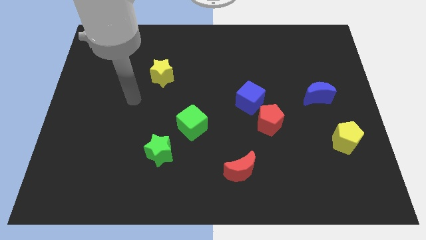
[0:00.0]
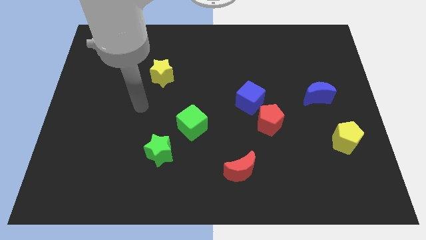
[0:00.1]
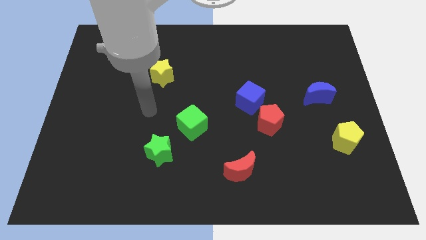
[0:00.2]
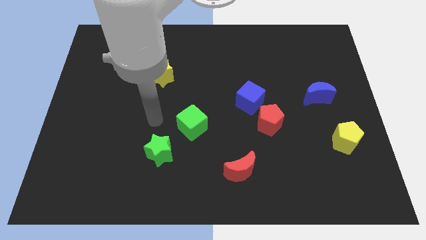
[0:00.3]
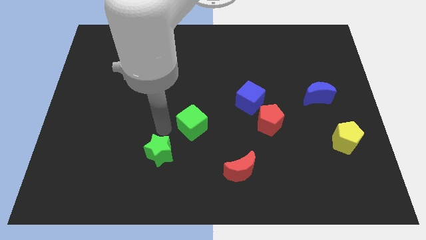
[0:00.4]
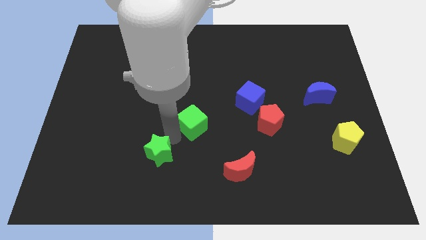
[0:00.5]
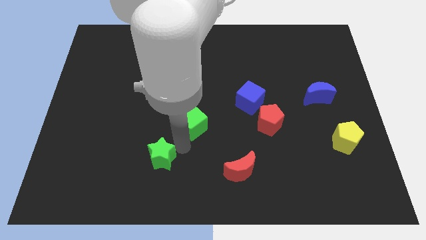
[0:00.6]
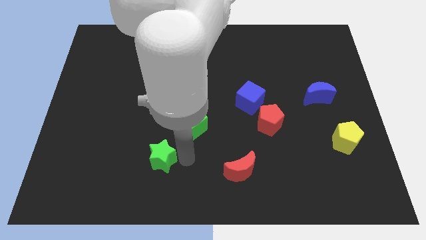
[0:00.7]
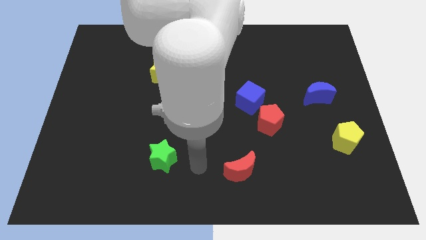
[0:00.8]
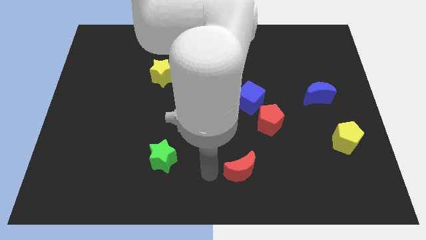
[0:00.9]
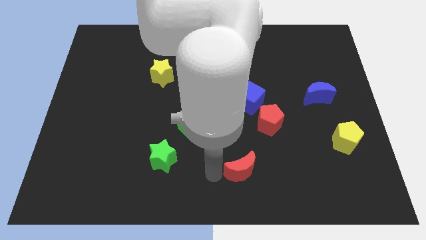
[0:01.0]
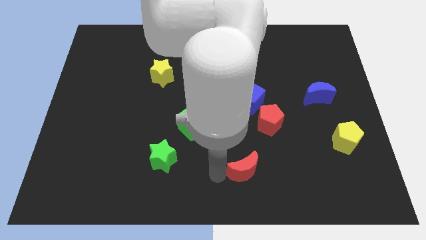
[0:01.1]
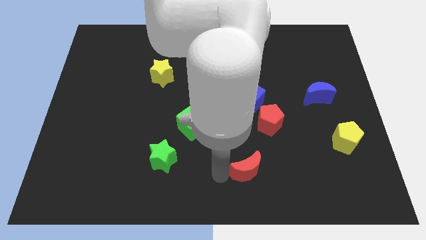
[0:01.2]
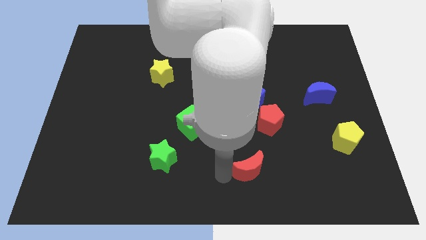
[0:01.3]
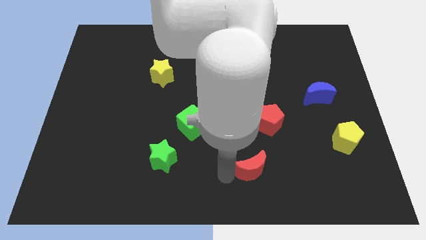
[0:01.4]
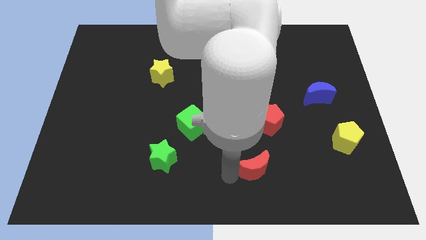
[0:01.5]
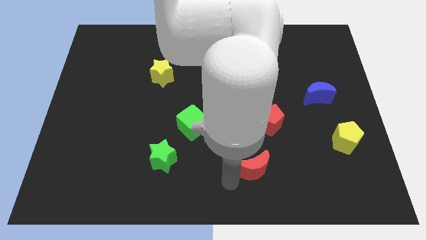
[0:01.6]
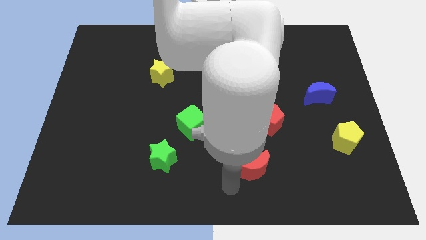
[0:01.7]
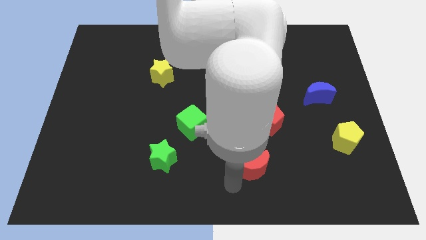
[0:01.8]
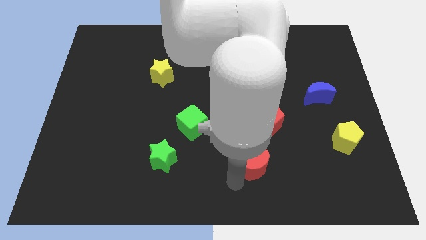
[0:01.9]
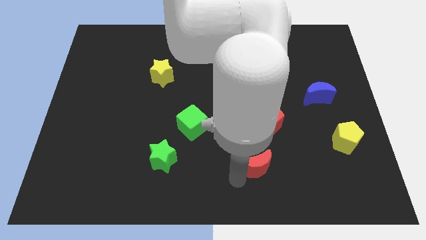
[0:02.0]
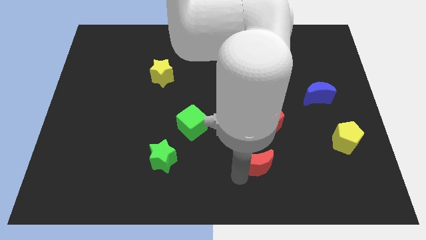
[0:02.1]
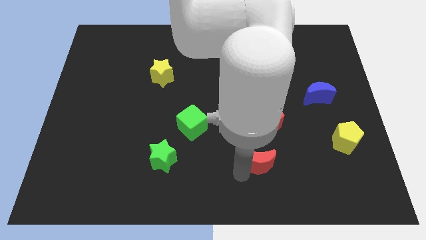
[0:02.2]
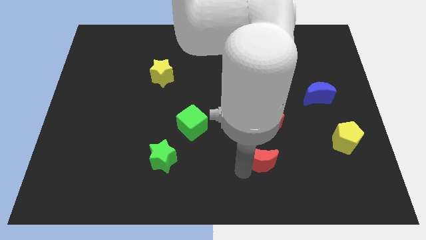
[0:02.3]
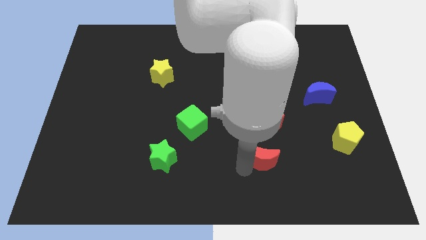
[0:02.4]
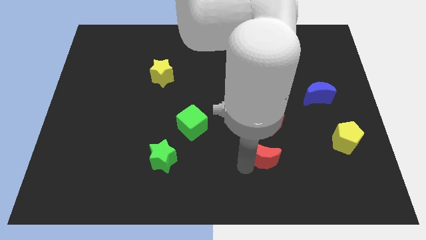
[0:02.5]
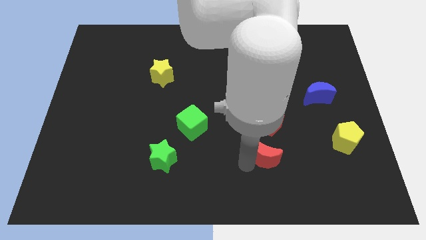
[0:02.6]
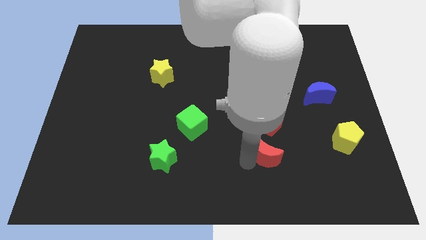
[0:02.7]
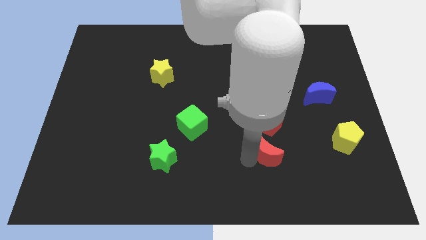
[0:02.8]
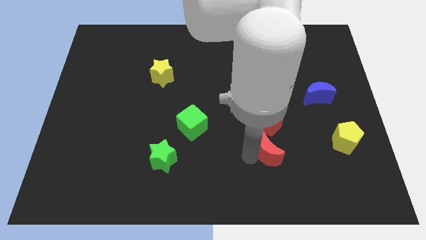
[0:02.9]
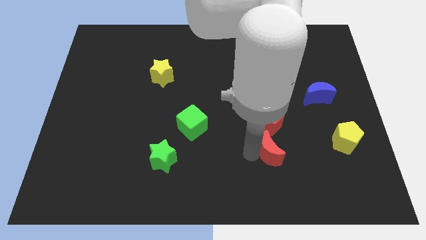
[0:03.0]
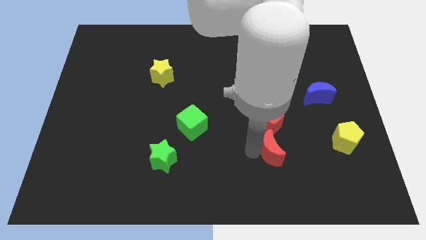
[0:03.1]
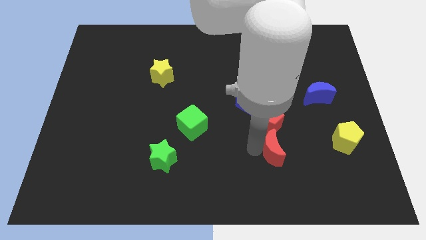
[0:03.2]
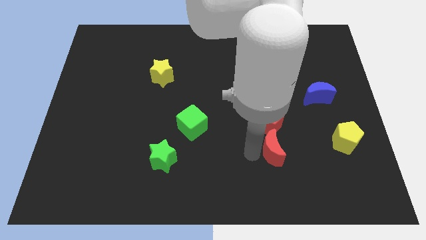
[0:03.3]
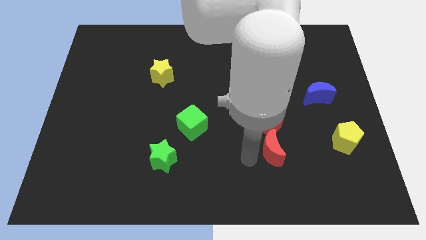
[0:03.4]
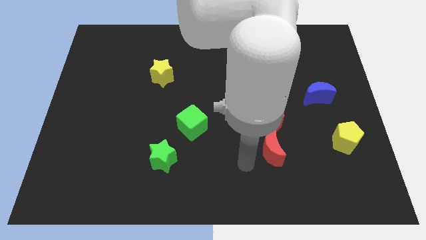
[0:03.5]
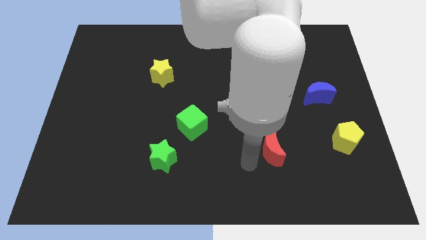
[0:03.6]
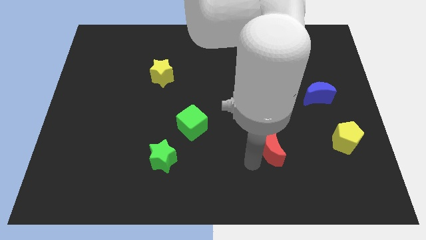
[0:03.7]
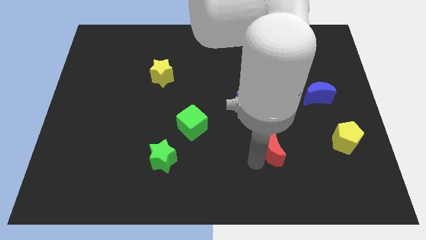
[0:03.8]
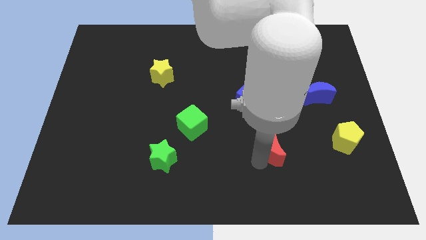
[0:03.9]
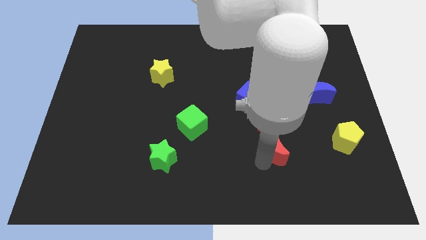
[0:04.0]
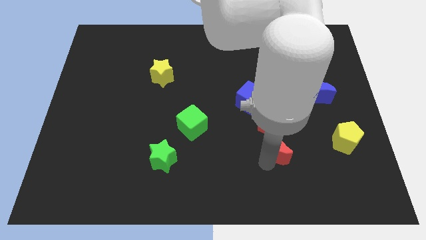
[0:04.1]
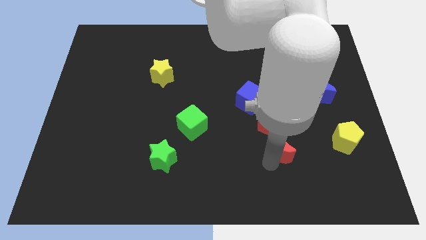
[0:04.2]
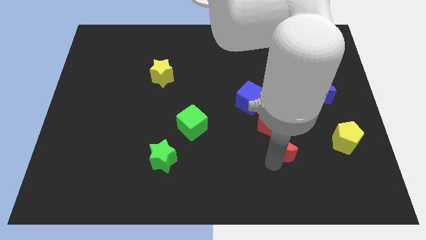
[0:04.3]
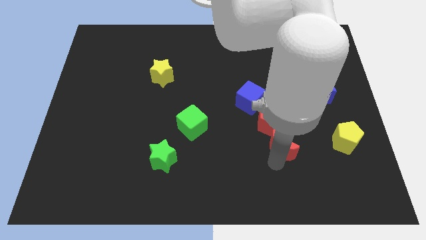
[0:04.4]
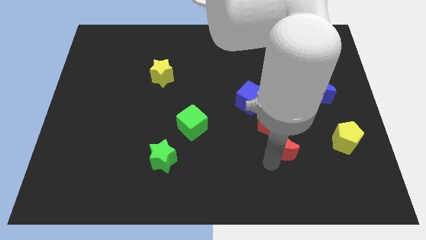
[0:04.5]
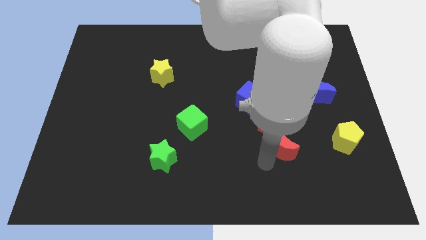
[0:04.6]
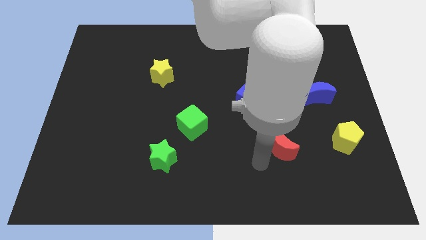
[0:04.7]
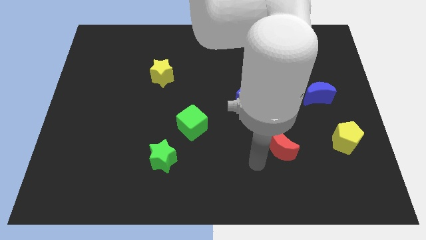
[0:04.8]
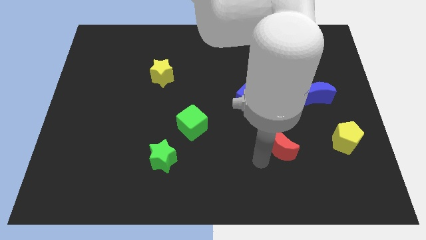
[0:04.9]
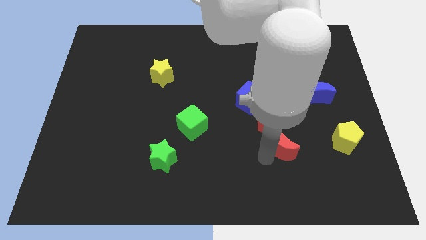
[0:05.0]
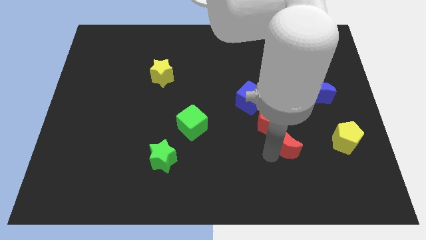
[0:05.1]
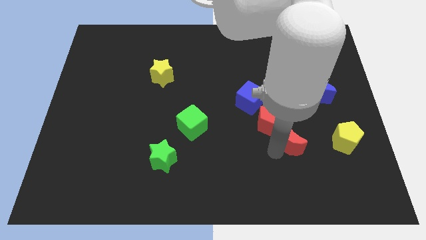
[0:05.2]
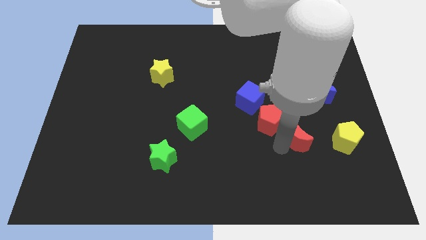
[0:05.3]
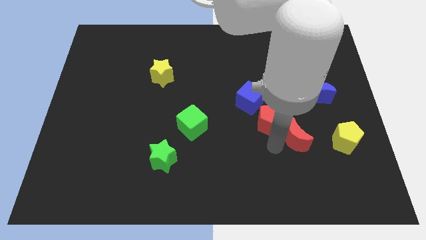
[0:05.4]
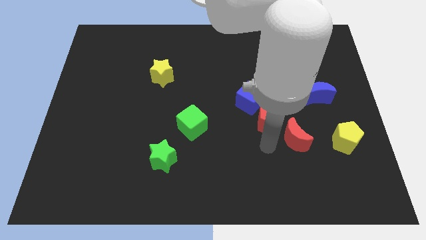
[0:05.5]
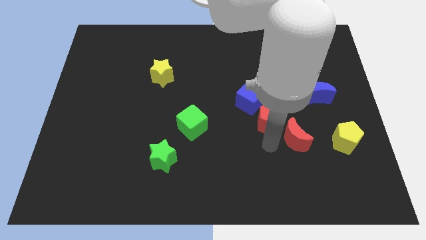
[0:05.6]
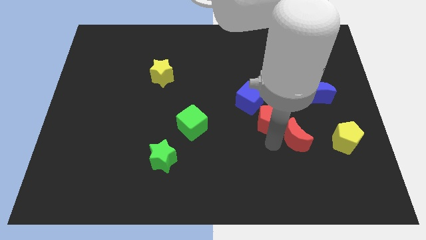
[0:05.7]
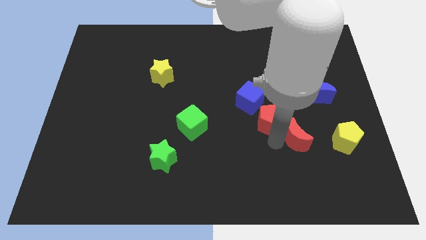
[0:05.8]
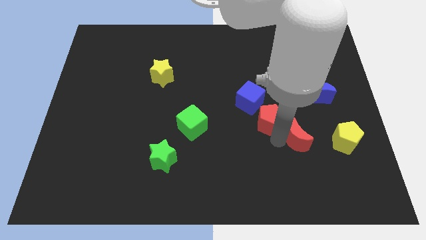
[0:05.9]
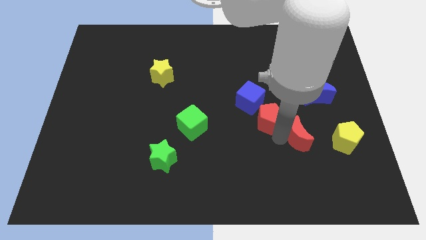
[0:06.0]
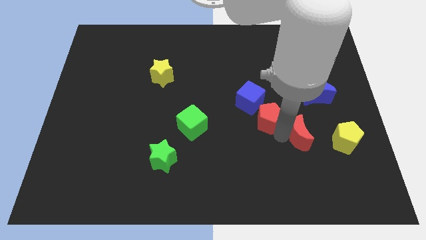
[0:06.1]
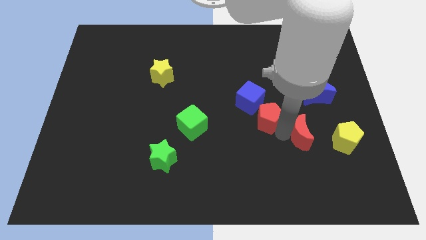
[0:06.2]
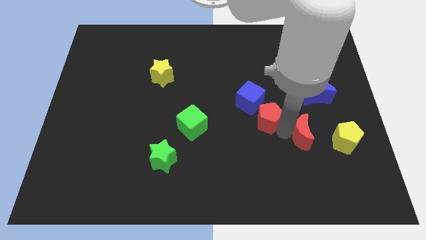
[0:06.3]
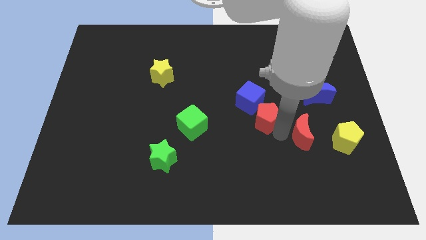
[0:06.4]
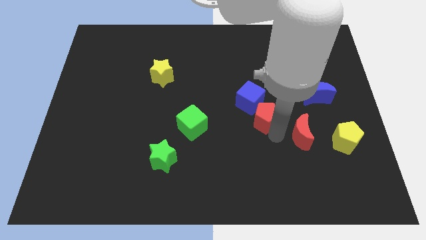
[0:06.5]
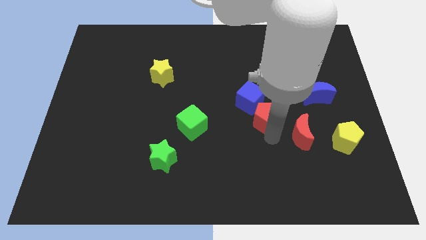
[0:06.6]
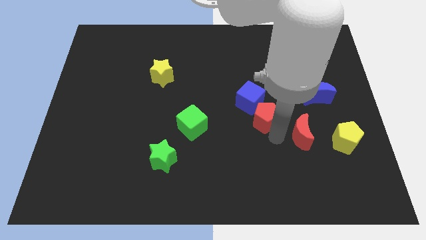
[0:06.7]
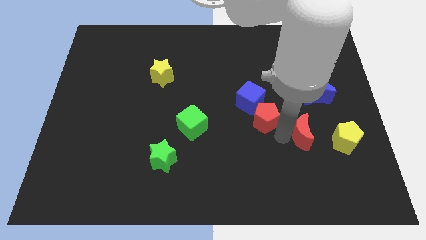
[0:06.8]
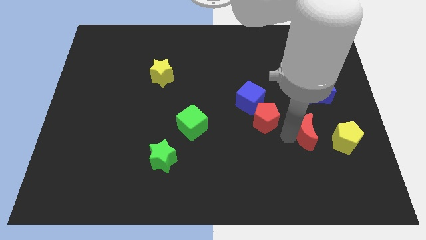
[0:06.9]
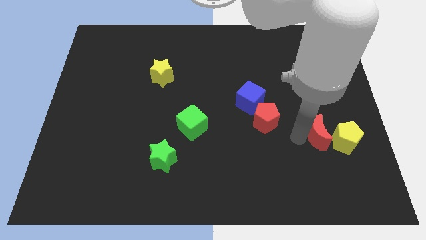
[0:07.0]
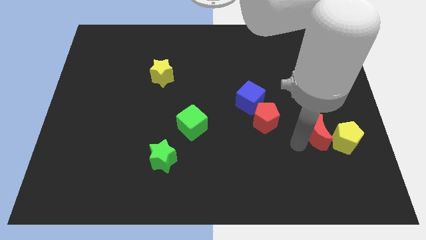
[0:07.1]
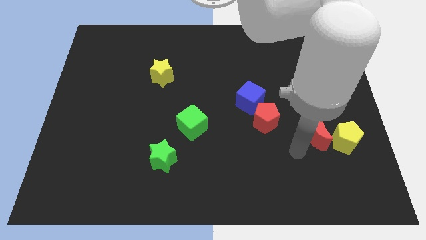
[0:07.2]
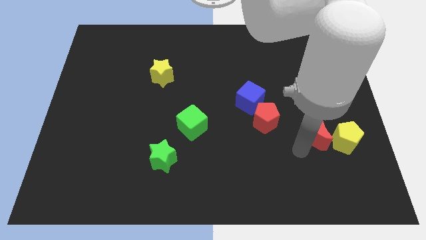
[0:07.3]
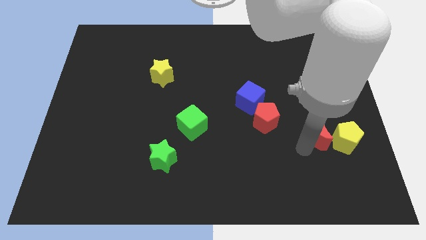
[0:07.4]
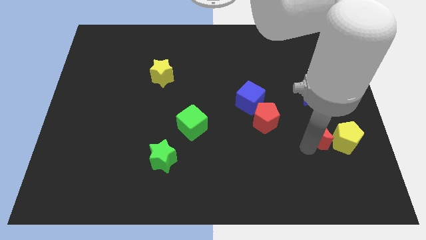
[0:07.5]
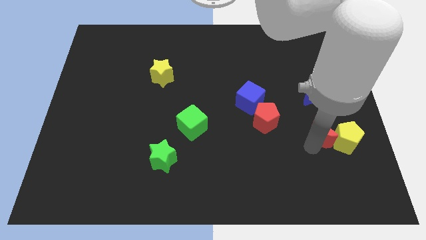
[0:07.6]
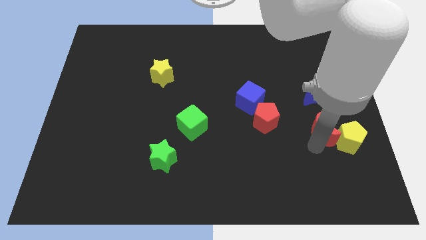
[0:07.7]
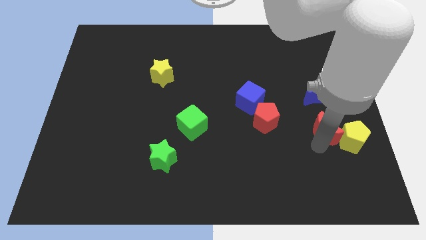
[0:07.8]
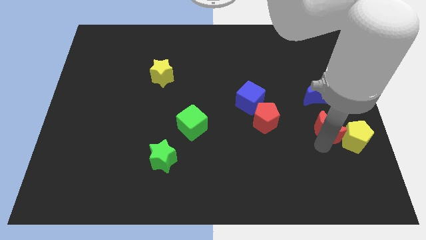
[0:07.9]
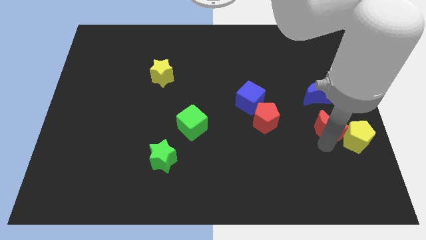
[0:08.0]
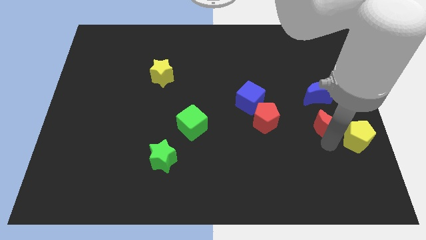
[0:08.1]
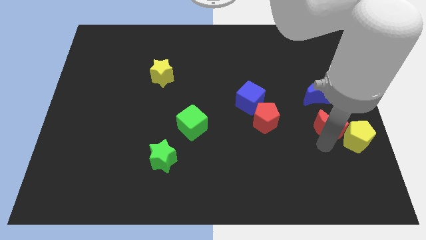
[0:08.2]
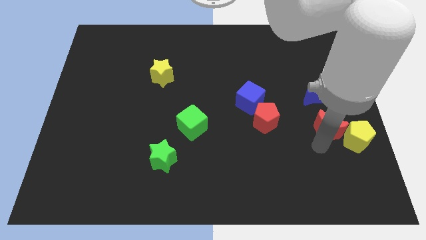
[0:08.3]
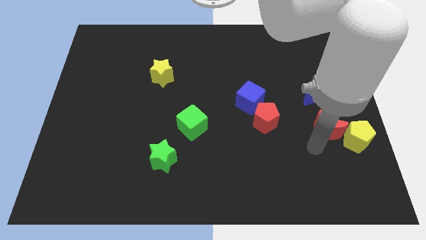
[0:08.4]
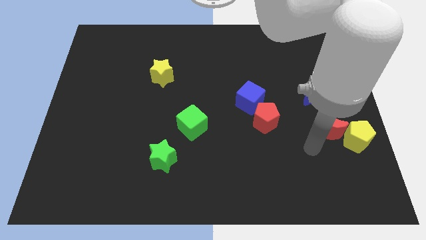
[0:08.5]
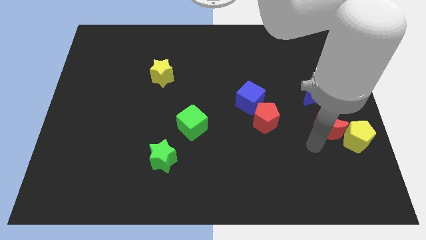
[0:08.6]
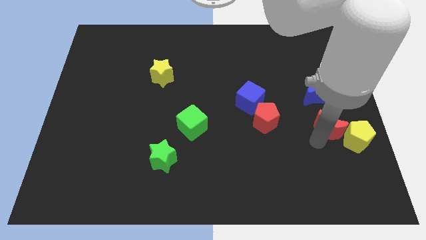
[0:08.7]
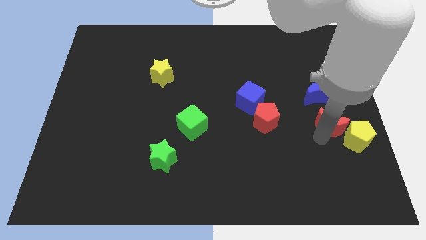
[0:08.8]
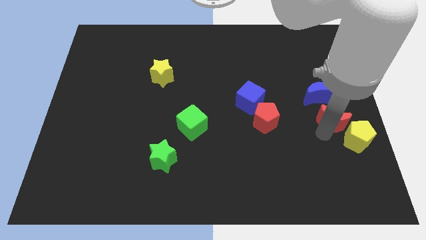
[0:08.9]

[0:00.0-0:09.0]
put the red moon to the right side
